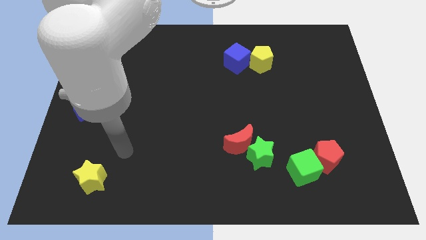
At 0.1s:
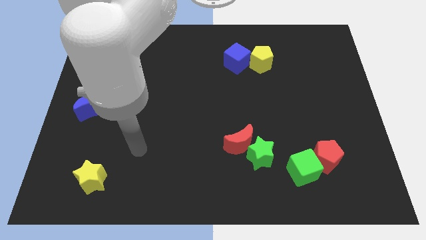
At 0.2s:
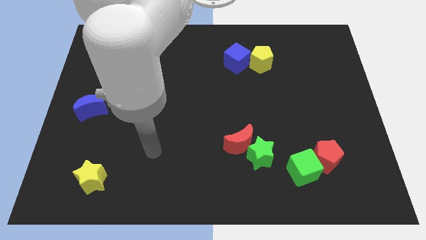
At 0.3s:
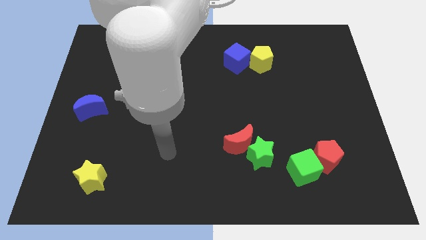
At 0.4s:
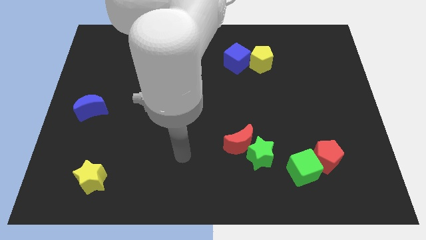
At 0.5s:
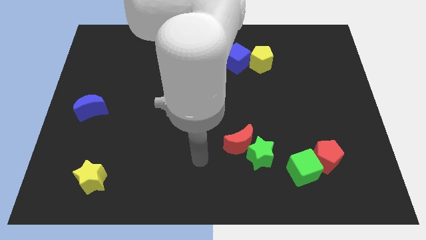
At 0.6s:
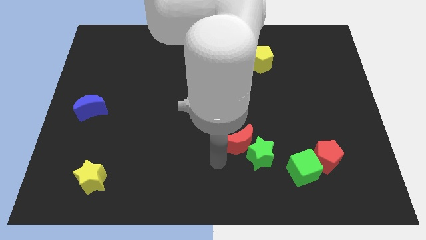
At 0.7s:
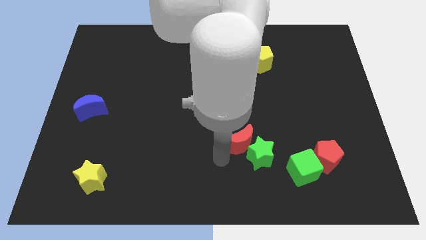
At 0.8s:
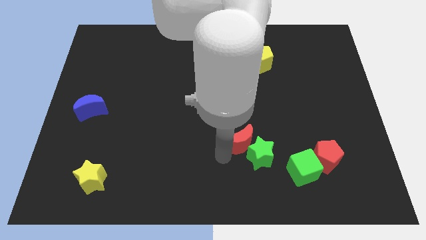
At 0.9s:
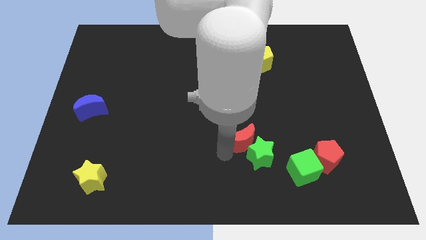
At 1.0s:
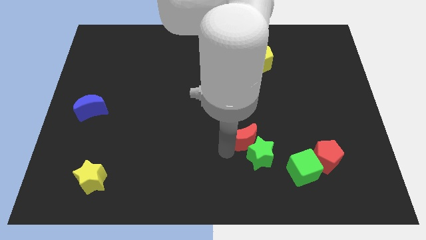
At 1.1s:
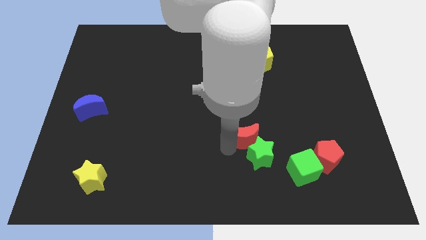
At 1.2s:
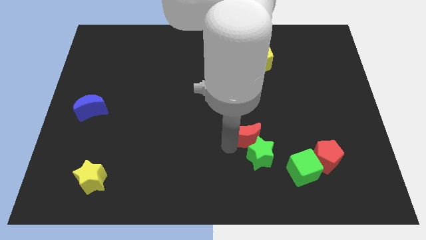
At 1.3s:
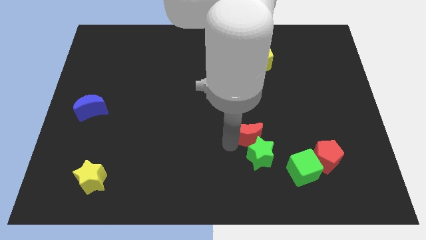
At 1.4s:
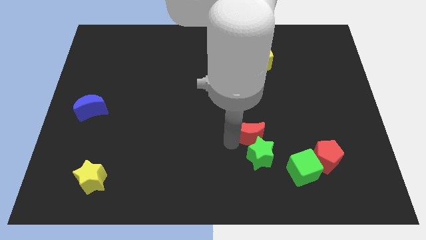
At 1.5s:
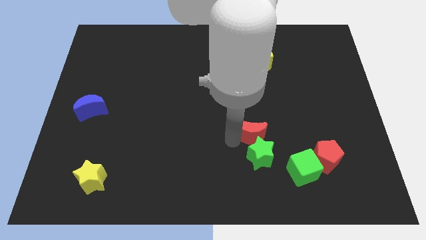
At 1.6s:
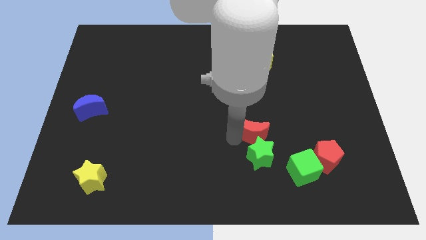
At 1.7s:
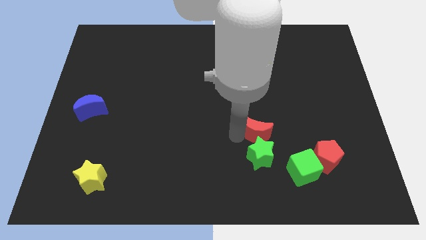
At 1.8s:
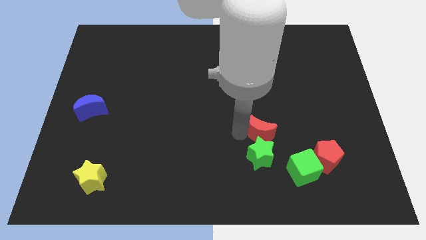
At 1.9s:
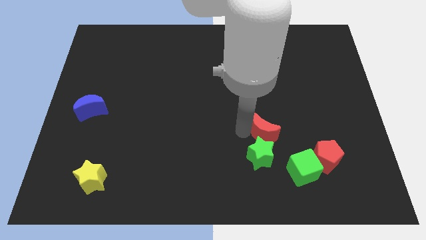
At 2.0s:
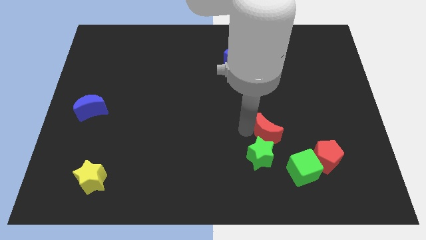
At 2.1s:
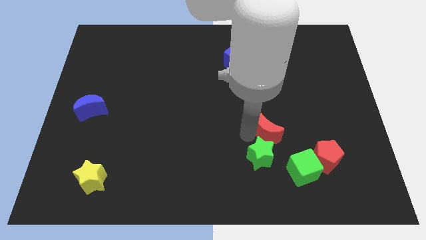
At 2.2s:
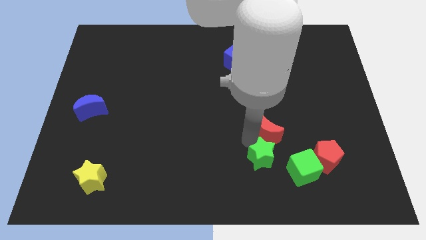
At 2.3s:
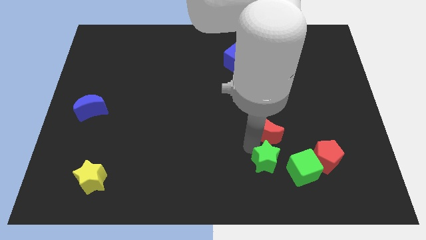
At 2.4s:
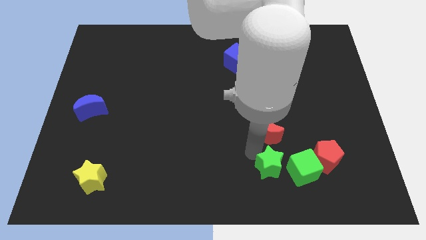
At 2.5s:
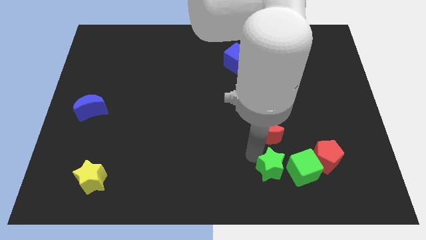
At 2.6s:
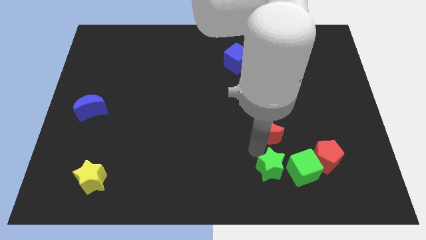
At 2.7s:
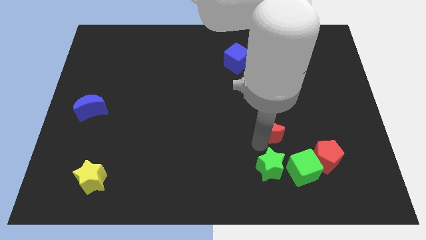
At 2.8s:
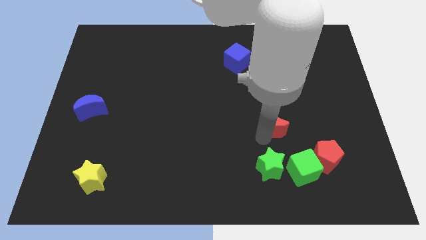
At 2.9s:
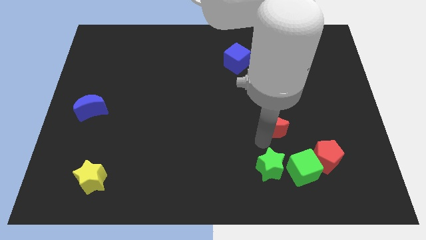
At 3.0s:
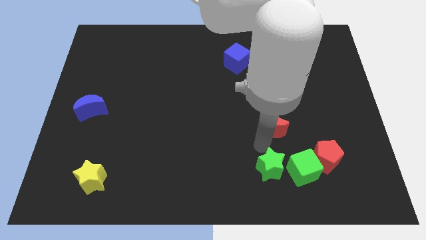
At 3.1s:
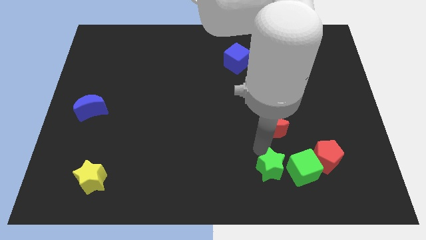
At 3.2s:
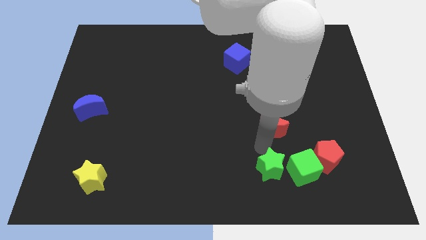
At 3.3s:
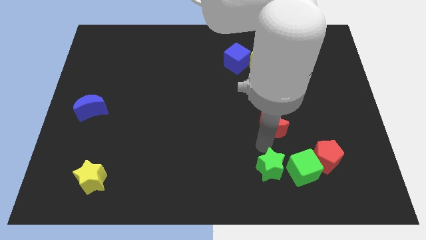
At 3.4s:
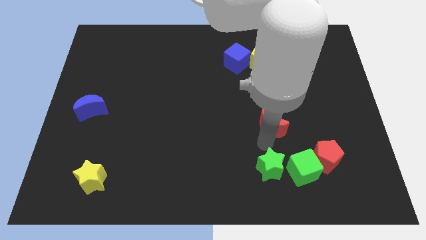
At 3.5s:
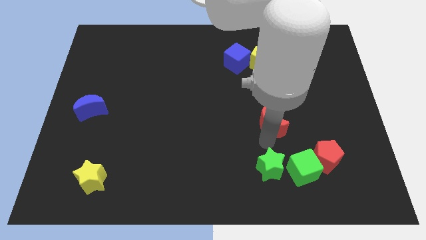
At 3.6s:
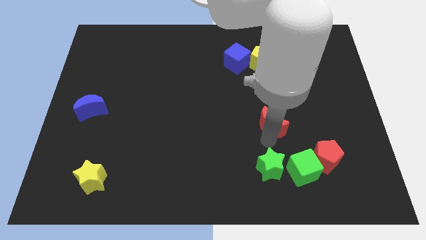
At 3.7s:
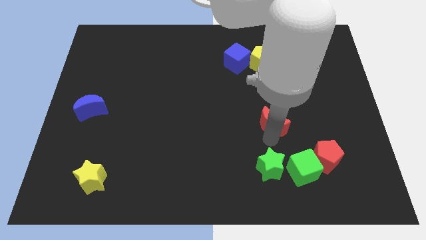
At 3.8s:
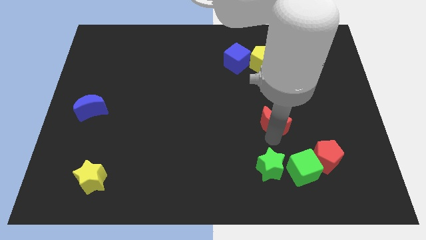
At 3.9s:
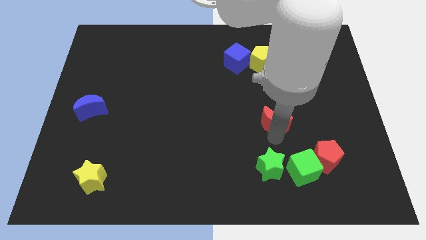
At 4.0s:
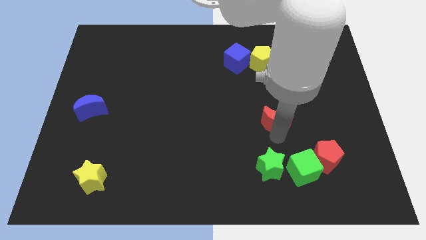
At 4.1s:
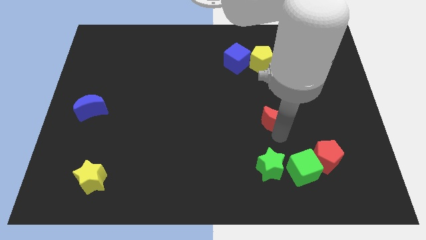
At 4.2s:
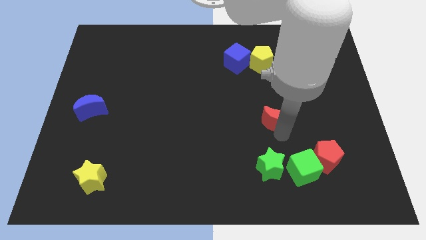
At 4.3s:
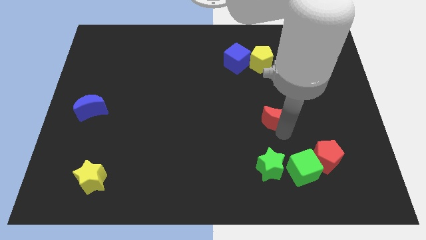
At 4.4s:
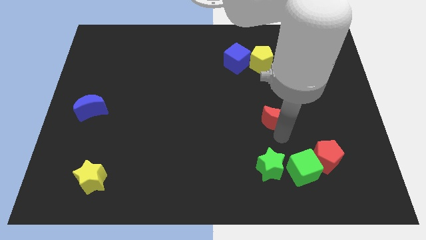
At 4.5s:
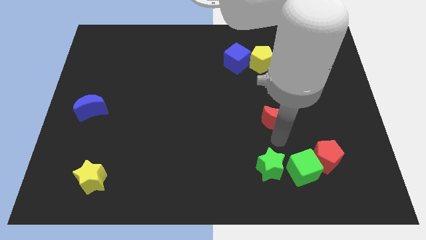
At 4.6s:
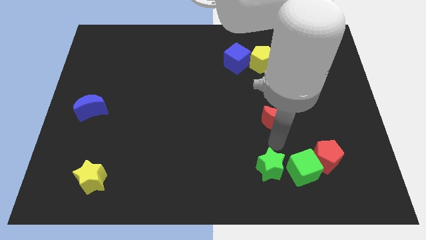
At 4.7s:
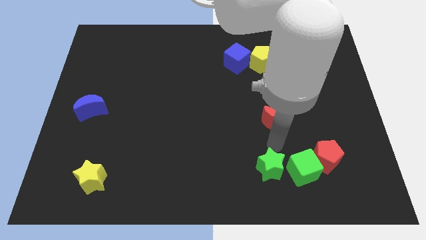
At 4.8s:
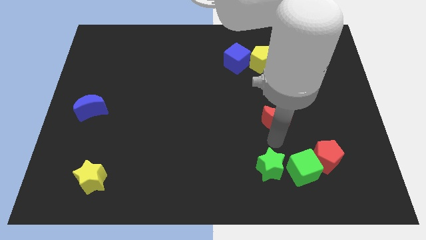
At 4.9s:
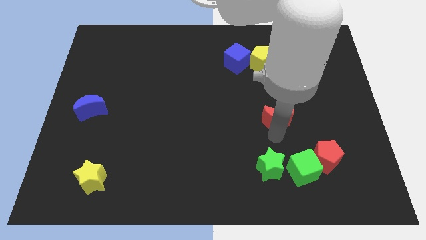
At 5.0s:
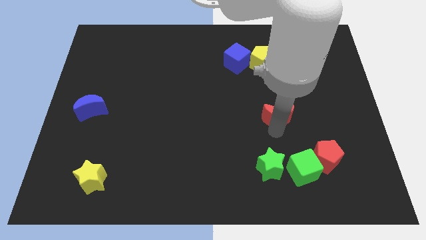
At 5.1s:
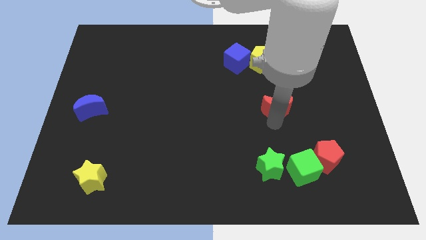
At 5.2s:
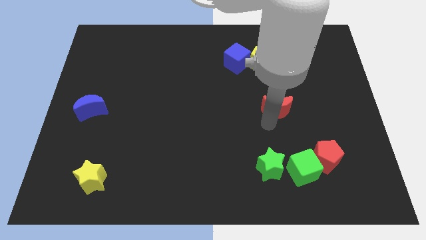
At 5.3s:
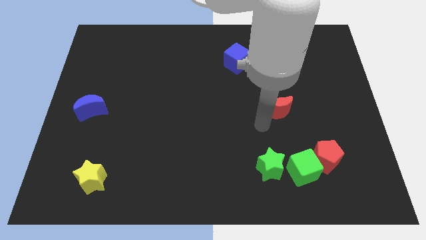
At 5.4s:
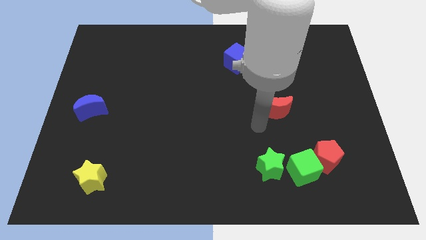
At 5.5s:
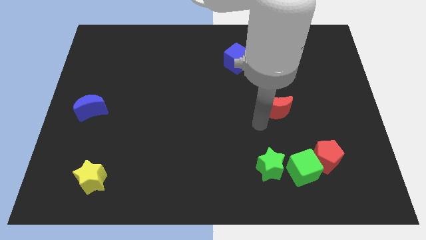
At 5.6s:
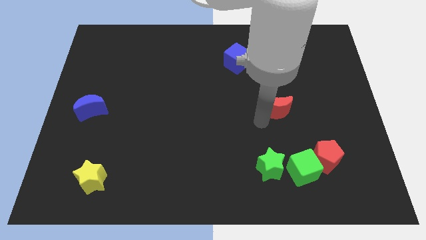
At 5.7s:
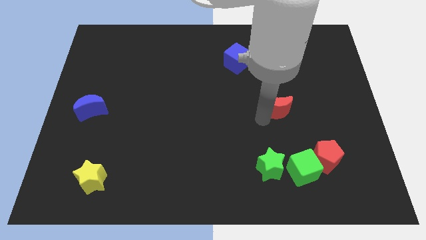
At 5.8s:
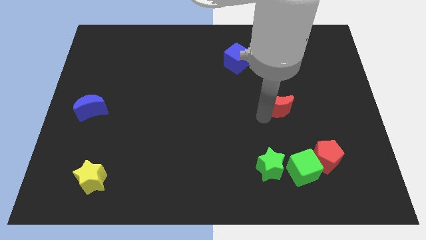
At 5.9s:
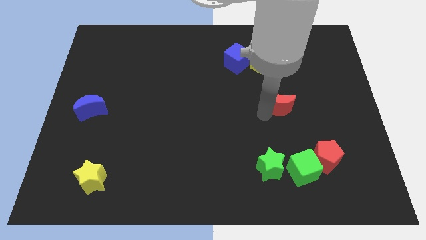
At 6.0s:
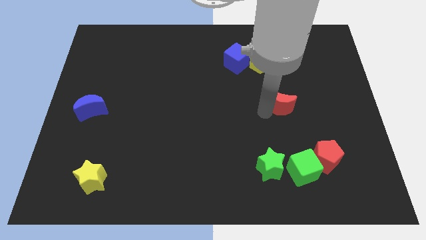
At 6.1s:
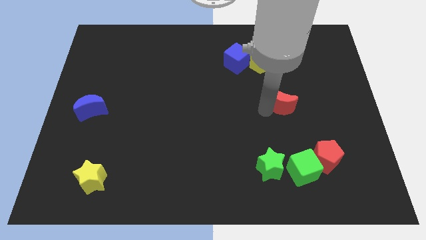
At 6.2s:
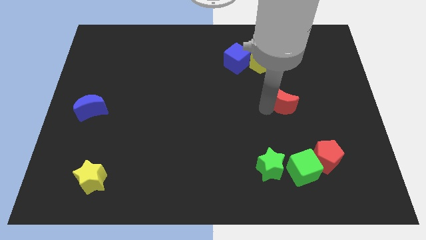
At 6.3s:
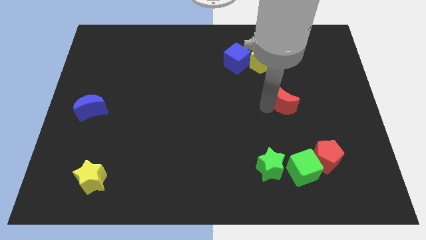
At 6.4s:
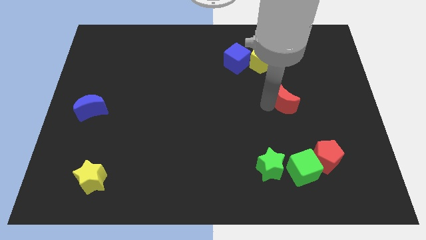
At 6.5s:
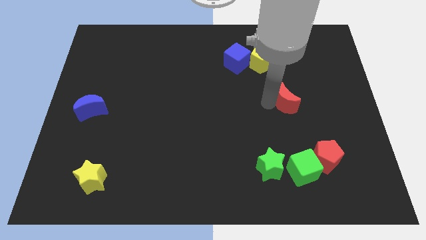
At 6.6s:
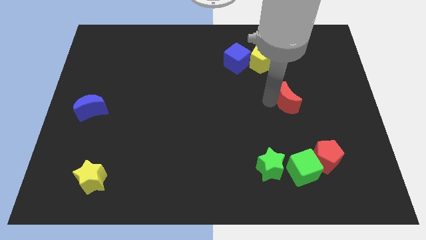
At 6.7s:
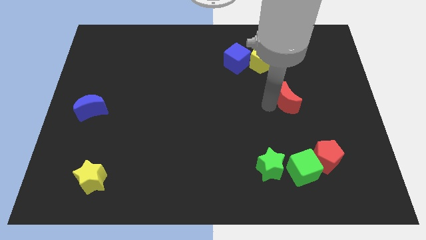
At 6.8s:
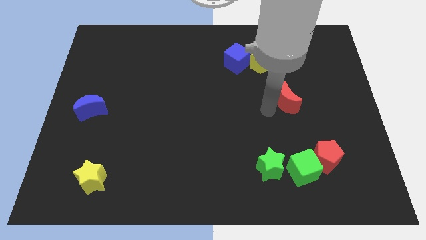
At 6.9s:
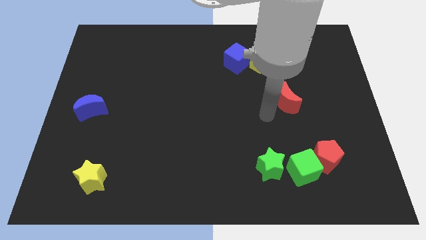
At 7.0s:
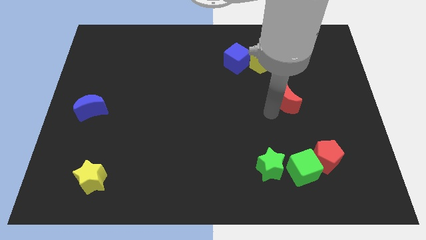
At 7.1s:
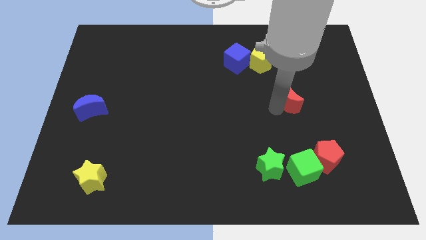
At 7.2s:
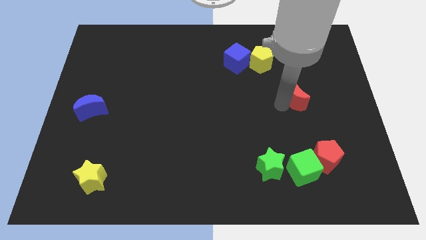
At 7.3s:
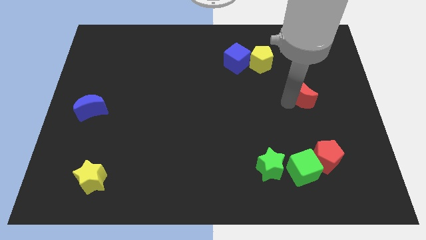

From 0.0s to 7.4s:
push the red moon up and then right
